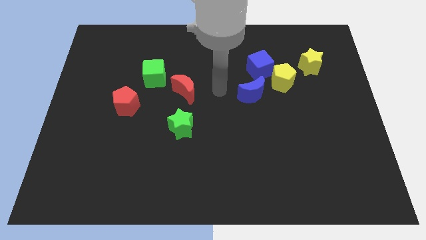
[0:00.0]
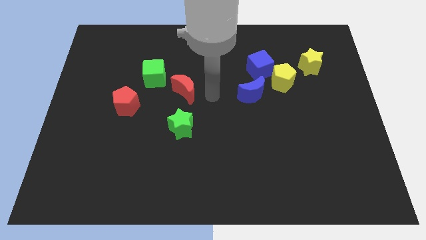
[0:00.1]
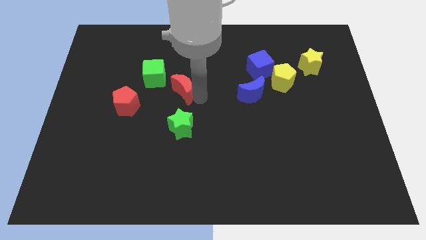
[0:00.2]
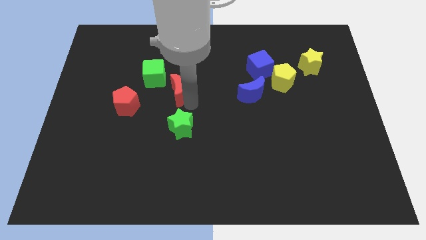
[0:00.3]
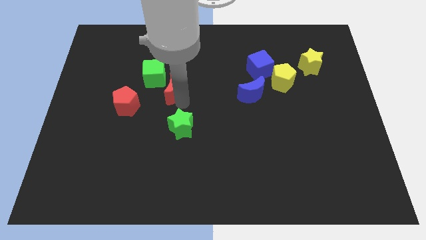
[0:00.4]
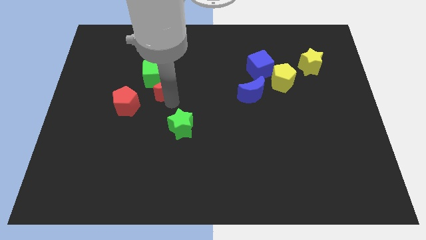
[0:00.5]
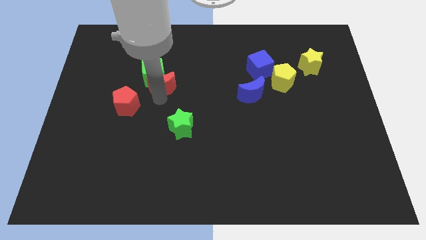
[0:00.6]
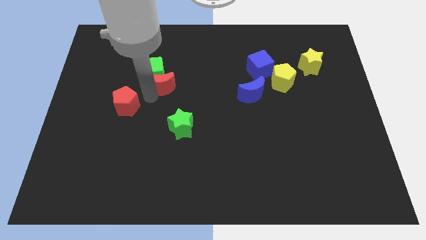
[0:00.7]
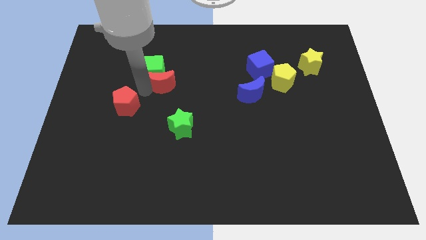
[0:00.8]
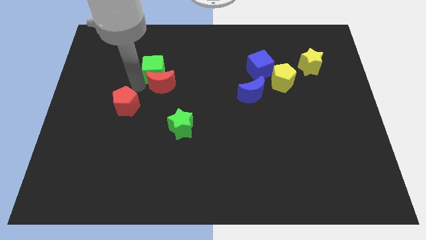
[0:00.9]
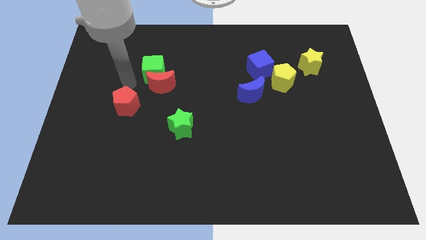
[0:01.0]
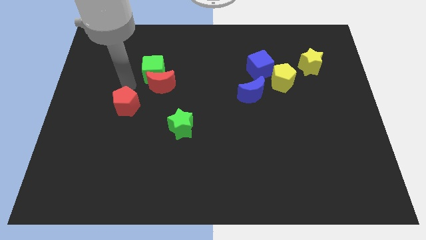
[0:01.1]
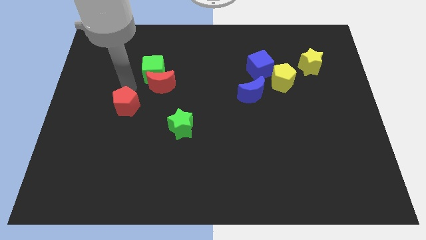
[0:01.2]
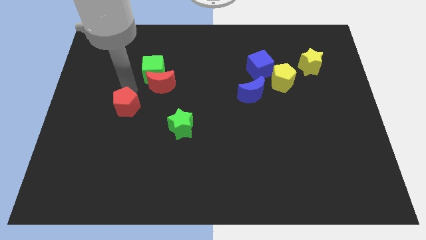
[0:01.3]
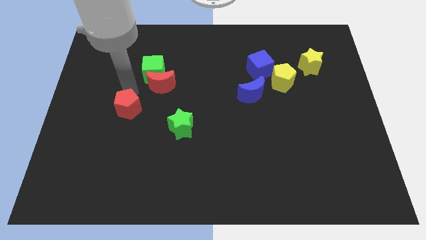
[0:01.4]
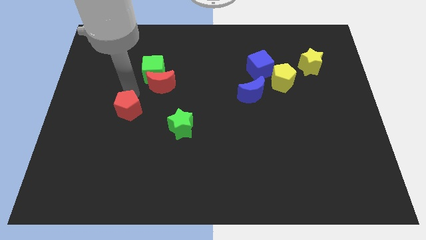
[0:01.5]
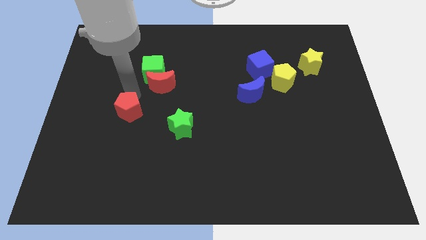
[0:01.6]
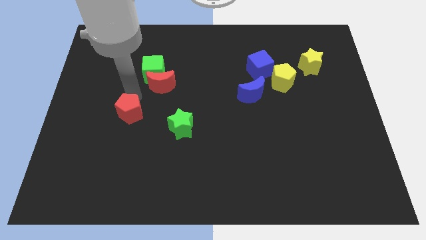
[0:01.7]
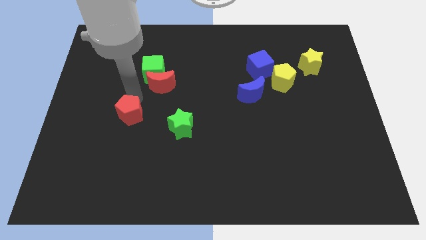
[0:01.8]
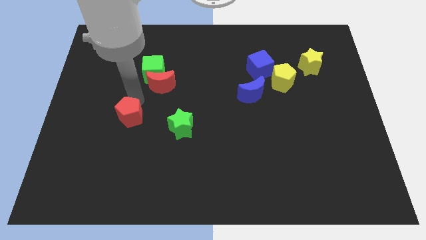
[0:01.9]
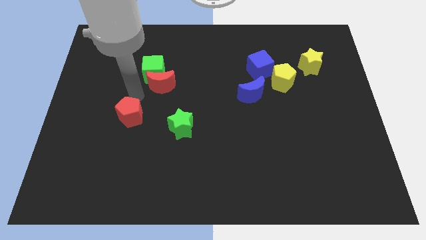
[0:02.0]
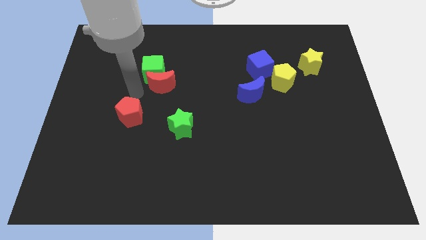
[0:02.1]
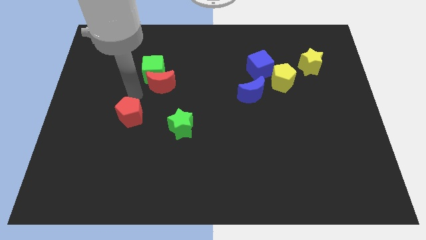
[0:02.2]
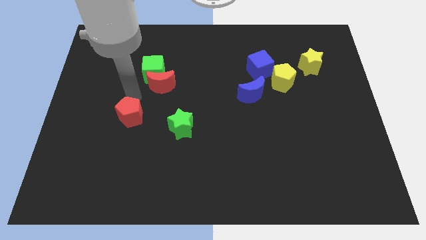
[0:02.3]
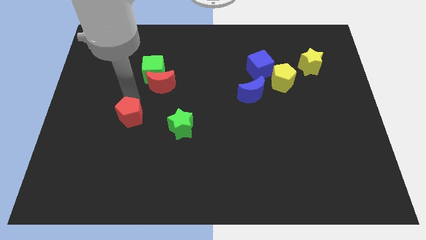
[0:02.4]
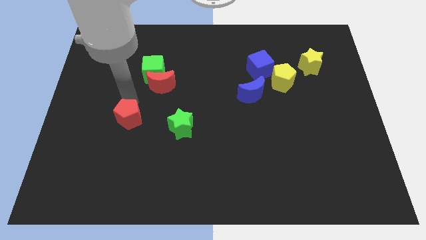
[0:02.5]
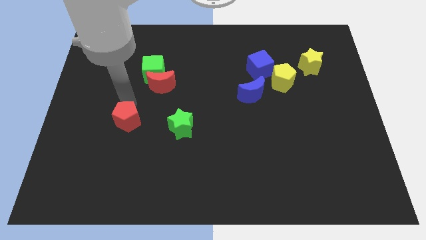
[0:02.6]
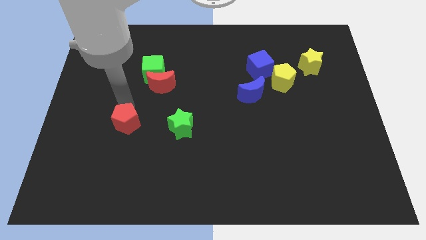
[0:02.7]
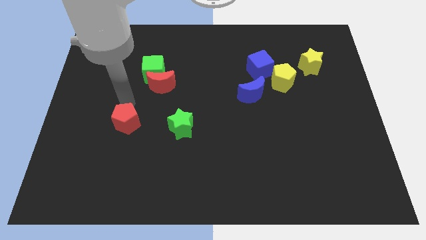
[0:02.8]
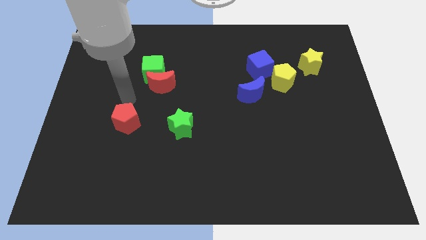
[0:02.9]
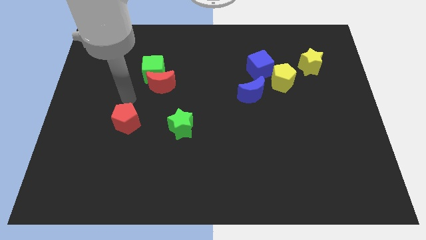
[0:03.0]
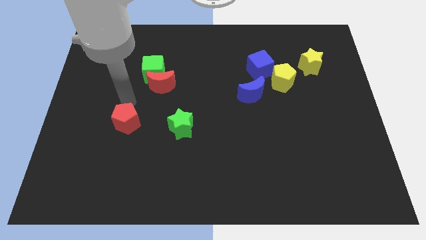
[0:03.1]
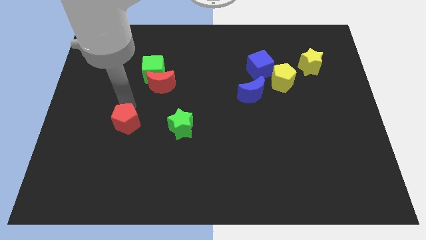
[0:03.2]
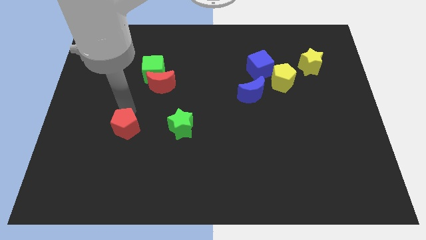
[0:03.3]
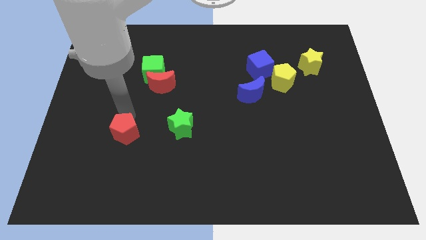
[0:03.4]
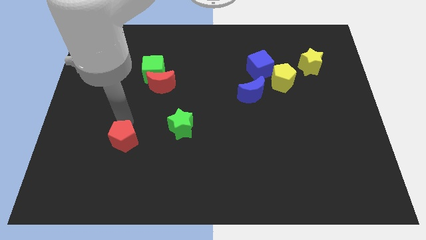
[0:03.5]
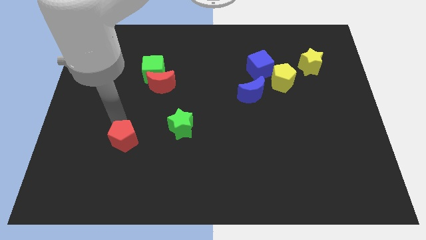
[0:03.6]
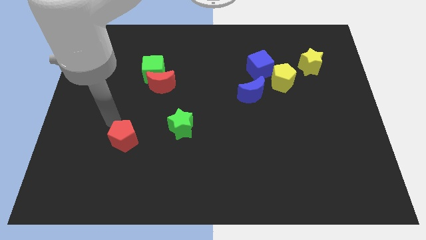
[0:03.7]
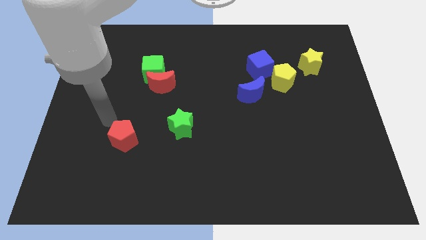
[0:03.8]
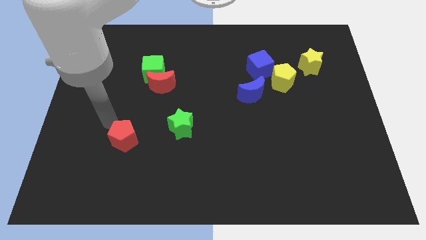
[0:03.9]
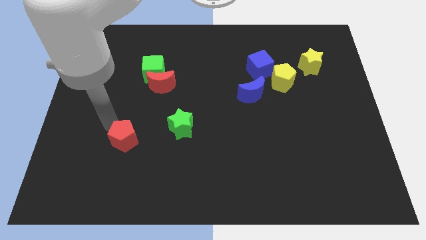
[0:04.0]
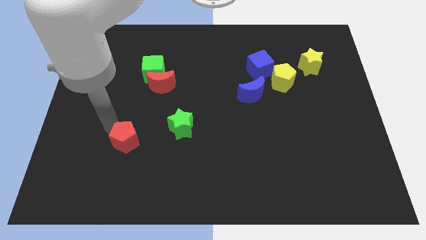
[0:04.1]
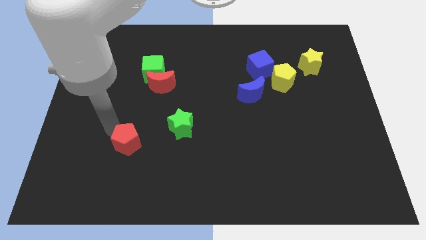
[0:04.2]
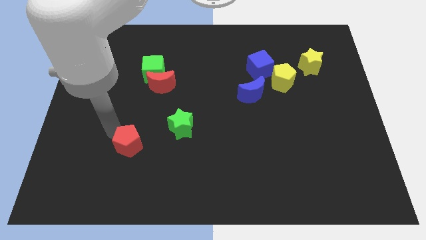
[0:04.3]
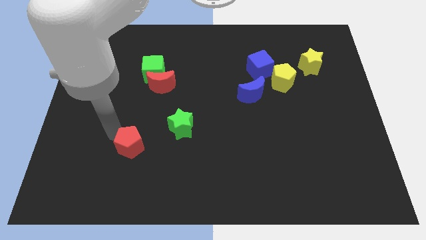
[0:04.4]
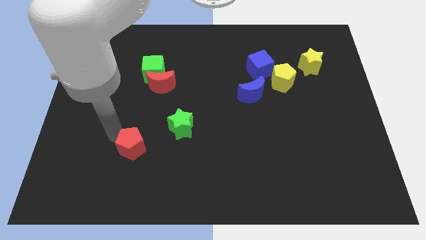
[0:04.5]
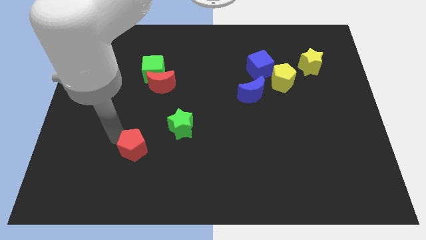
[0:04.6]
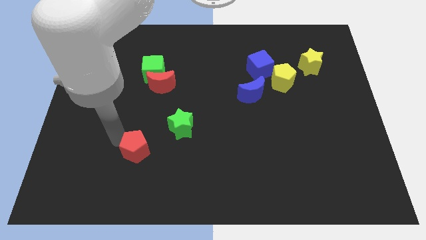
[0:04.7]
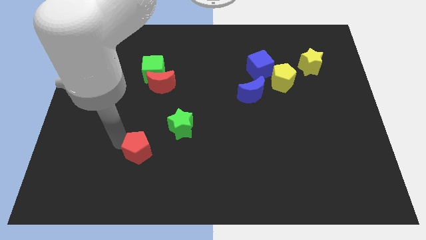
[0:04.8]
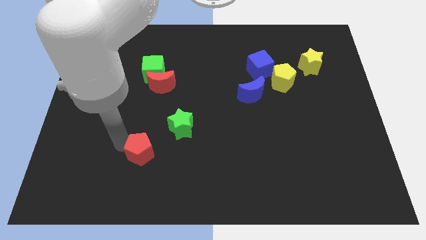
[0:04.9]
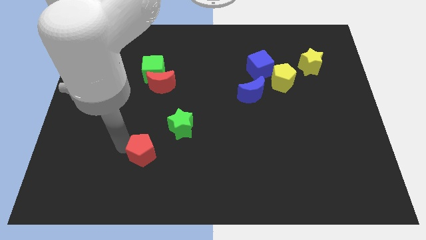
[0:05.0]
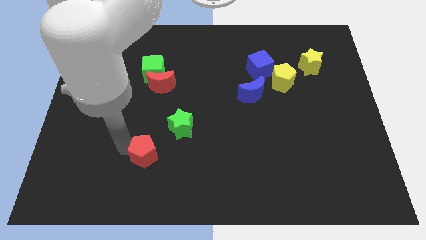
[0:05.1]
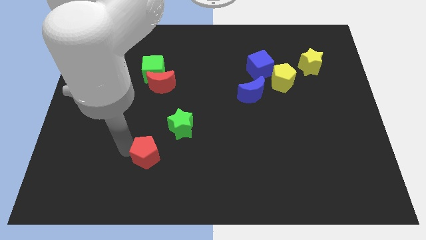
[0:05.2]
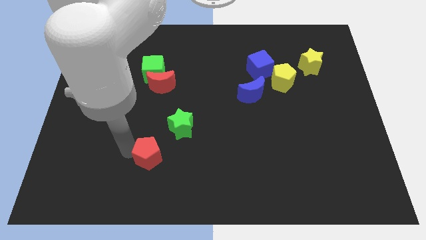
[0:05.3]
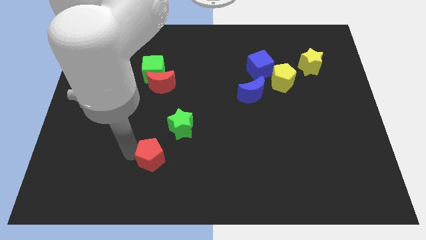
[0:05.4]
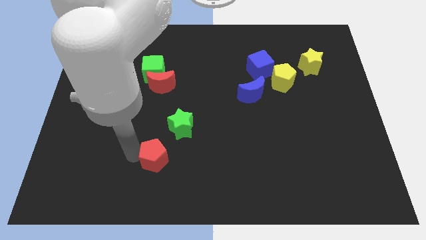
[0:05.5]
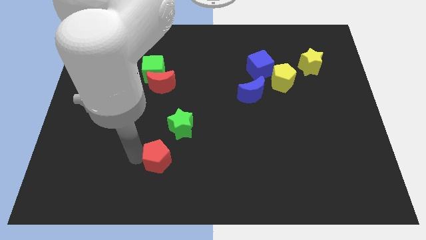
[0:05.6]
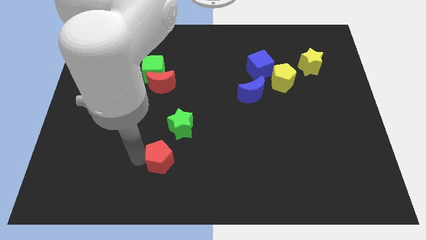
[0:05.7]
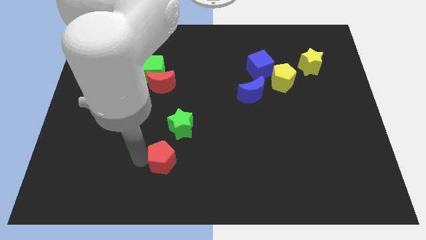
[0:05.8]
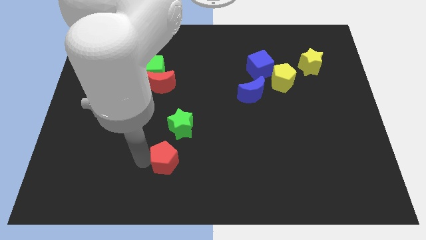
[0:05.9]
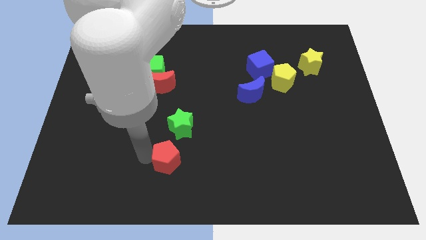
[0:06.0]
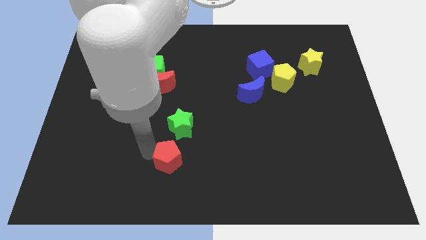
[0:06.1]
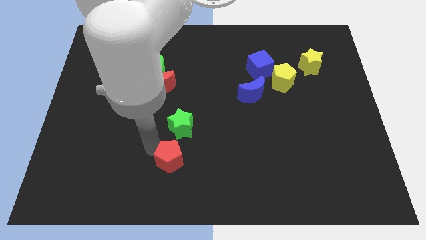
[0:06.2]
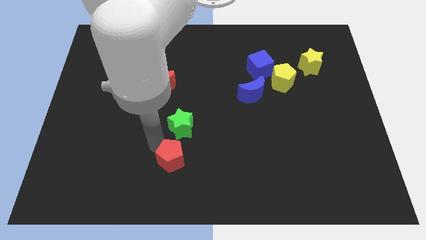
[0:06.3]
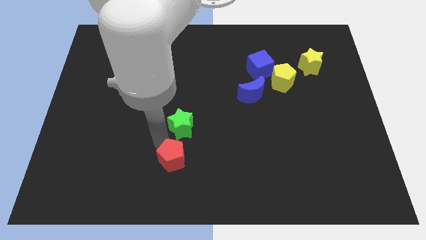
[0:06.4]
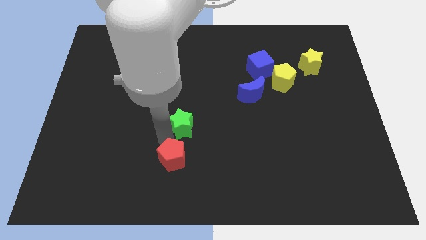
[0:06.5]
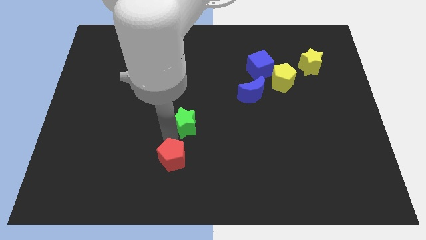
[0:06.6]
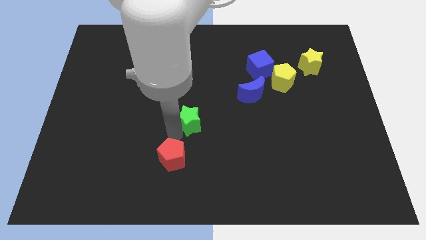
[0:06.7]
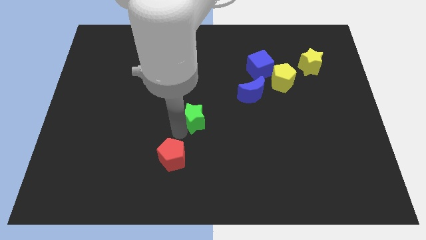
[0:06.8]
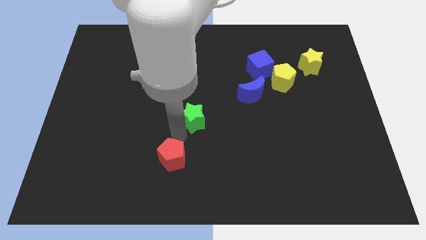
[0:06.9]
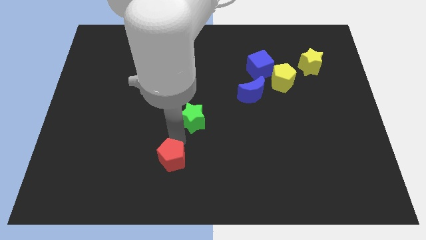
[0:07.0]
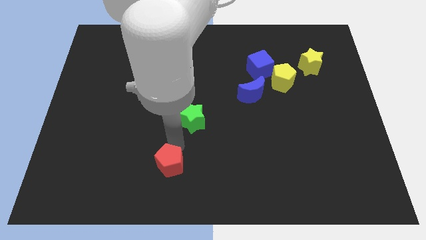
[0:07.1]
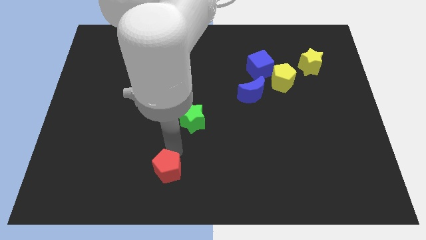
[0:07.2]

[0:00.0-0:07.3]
slide the red pentagon to the bottom

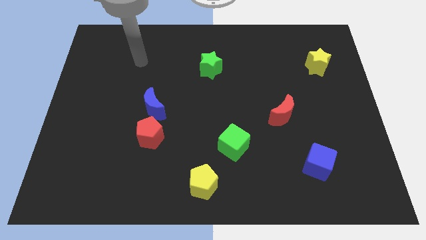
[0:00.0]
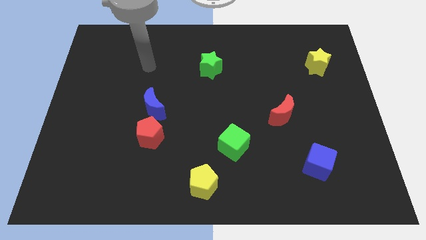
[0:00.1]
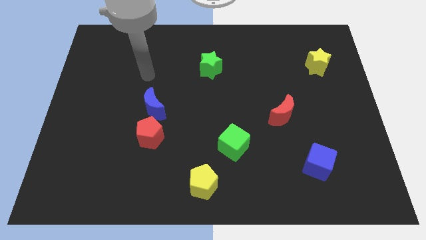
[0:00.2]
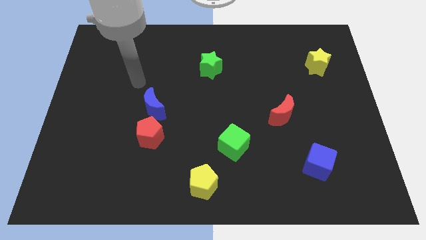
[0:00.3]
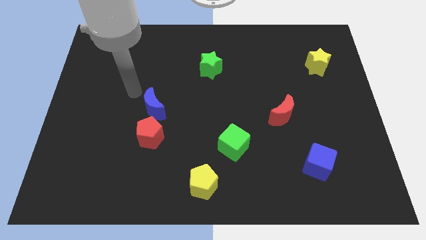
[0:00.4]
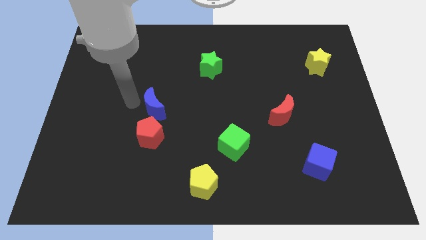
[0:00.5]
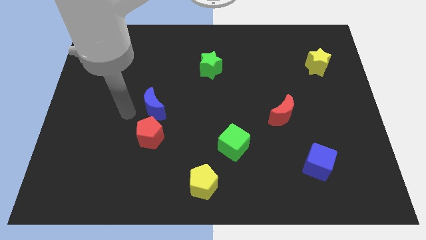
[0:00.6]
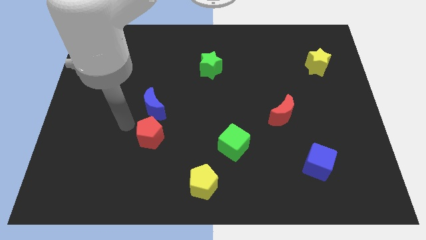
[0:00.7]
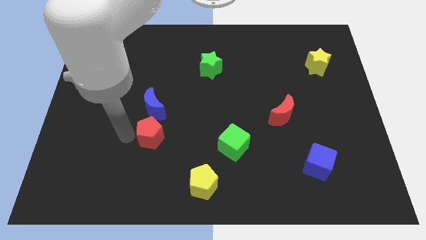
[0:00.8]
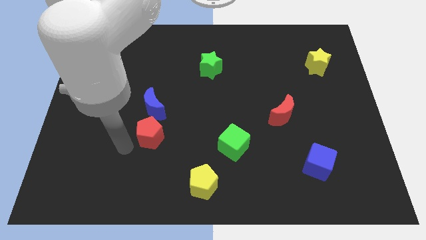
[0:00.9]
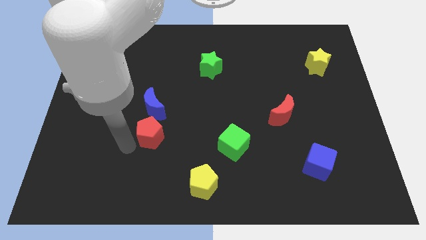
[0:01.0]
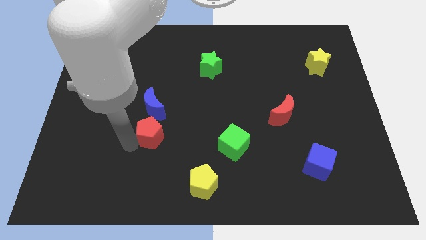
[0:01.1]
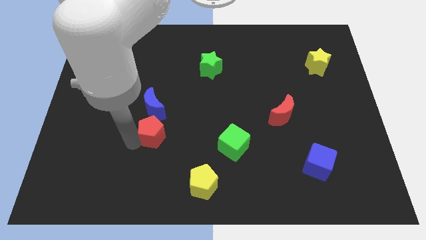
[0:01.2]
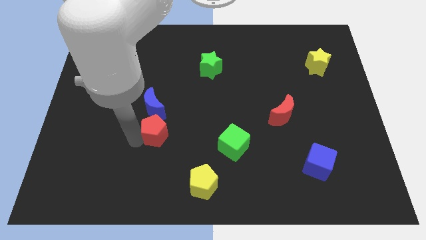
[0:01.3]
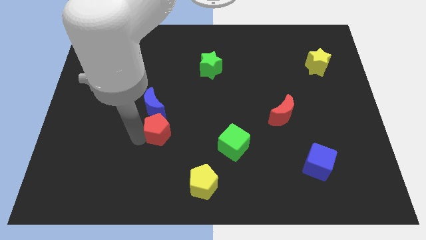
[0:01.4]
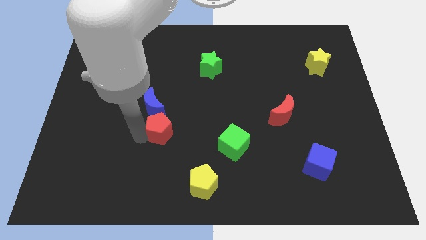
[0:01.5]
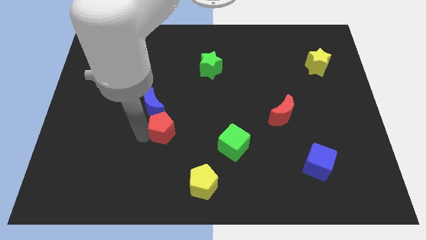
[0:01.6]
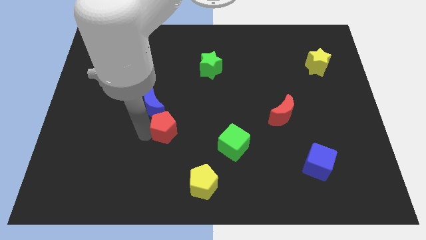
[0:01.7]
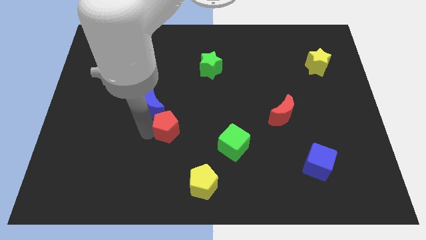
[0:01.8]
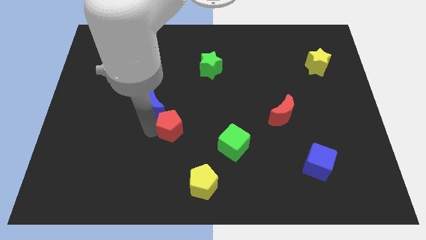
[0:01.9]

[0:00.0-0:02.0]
move the red pentagon to the center
